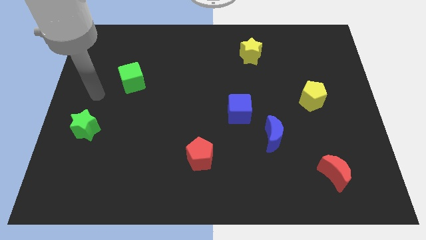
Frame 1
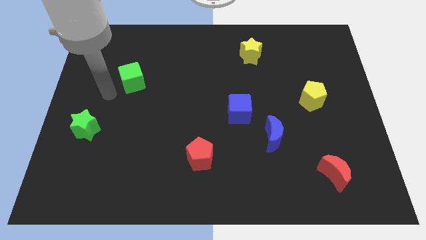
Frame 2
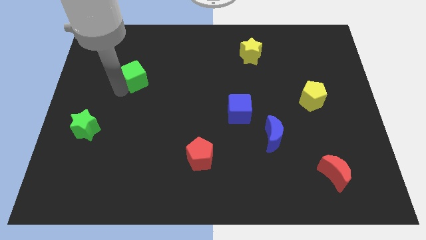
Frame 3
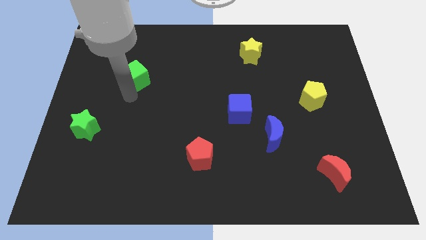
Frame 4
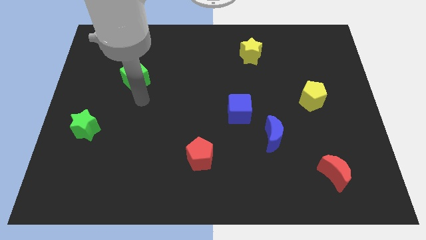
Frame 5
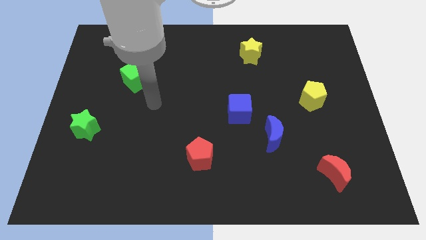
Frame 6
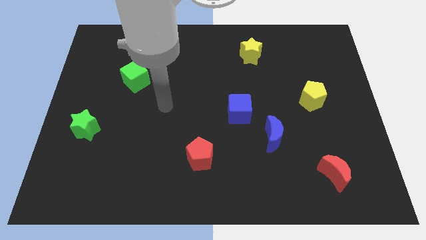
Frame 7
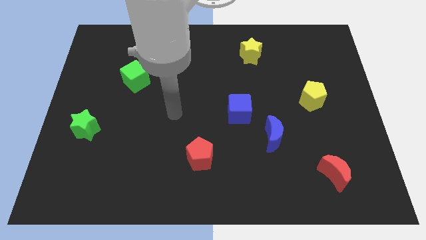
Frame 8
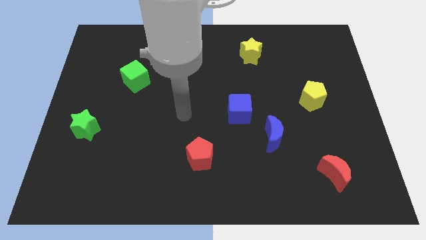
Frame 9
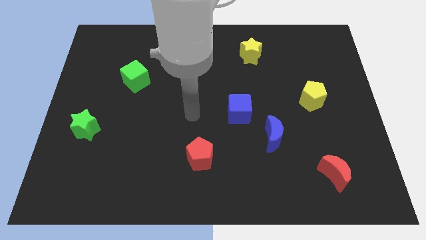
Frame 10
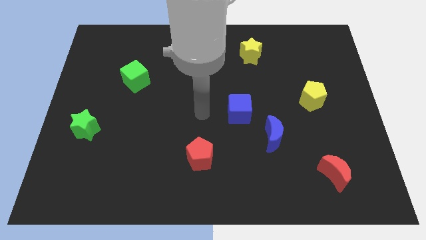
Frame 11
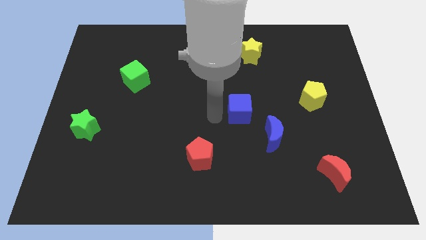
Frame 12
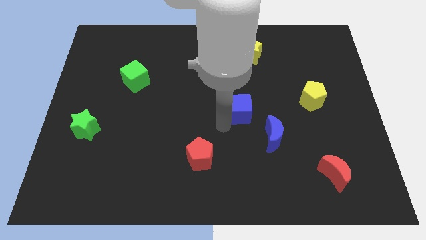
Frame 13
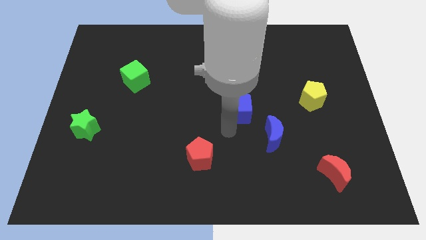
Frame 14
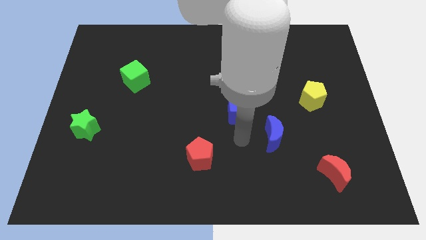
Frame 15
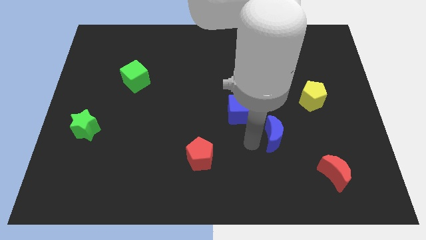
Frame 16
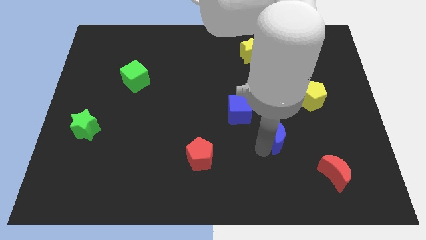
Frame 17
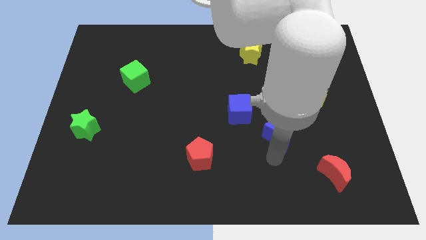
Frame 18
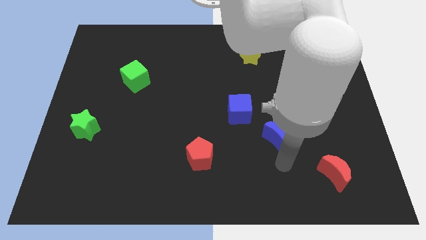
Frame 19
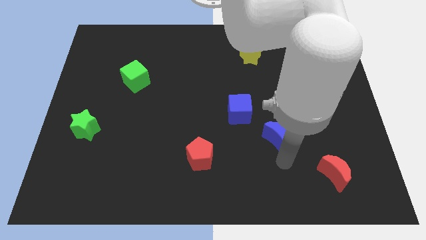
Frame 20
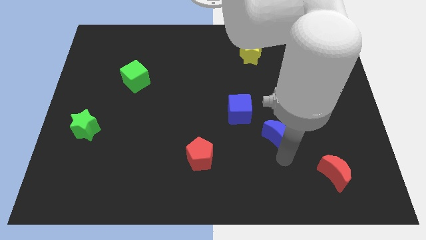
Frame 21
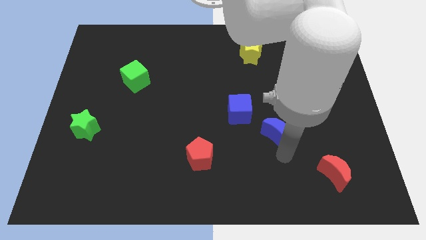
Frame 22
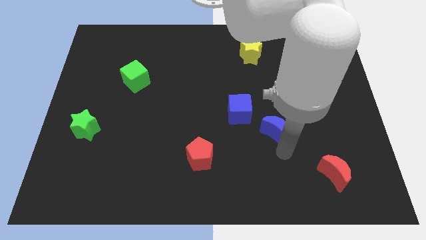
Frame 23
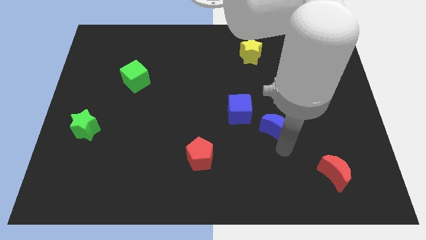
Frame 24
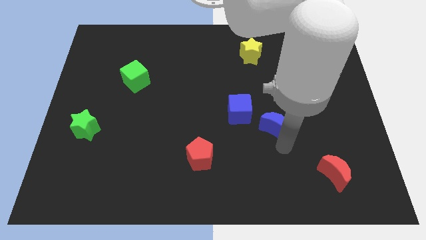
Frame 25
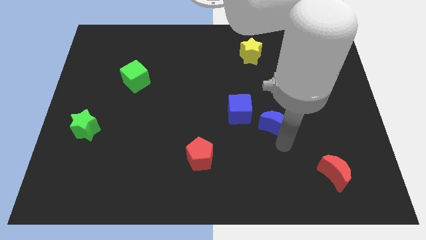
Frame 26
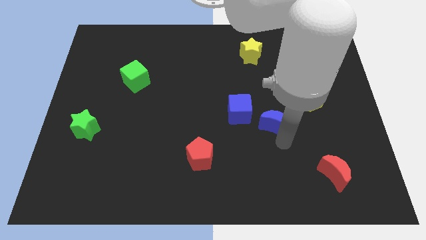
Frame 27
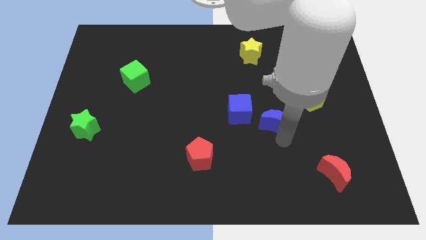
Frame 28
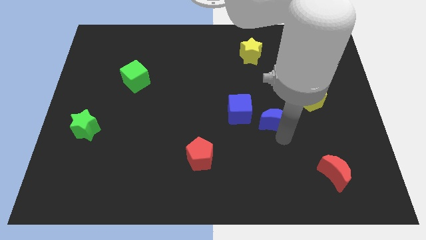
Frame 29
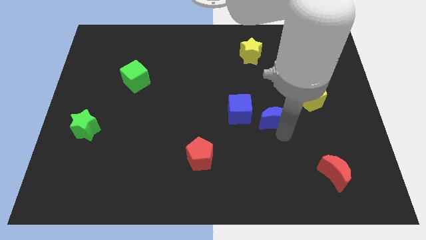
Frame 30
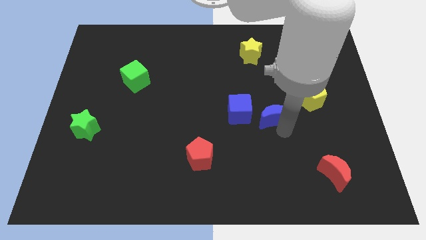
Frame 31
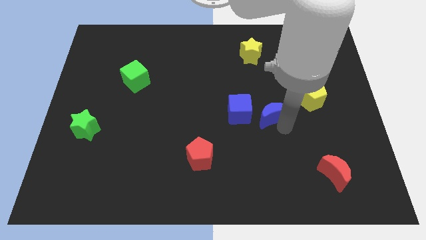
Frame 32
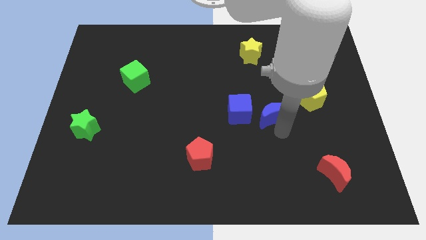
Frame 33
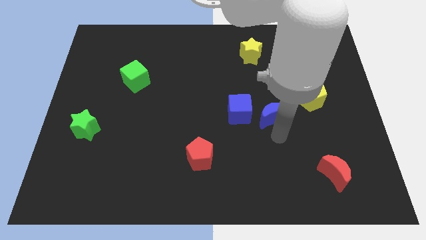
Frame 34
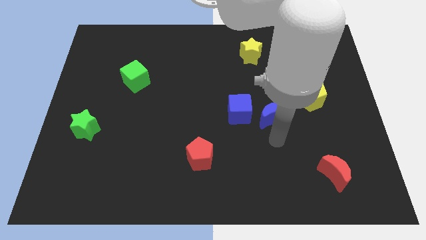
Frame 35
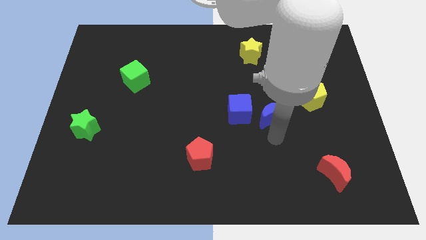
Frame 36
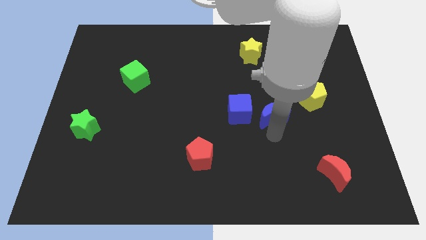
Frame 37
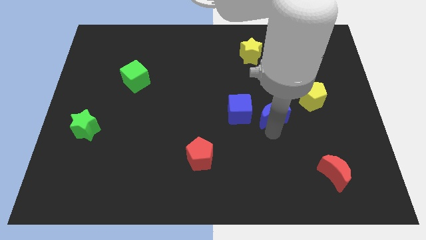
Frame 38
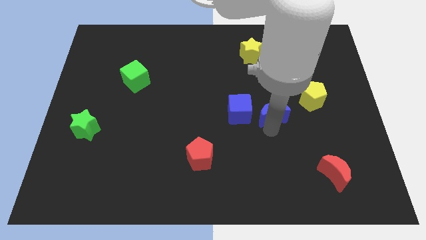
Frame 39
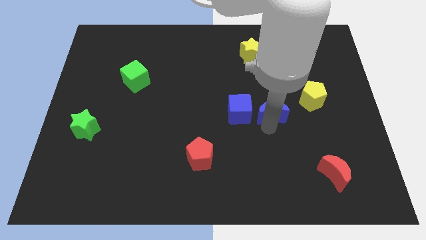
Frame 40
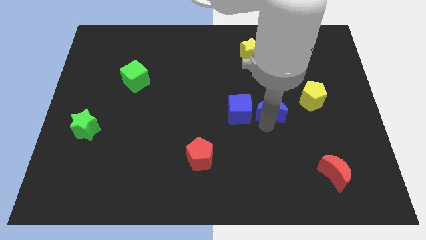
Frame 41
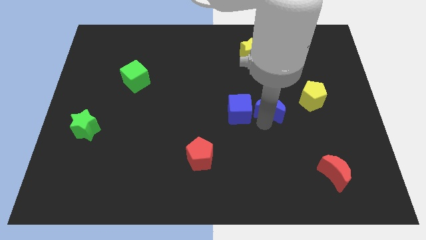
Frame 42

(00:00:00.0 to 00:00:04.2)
slightly push the blue moon up

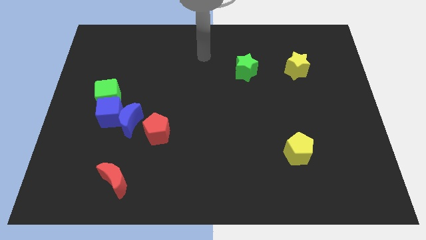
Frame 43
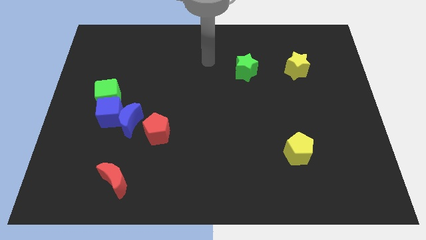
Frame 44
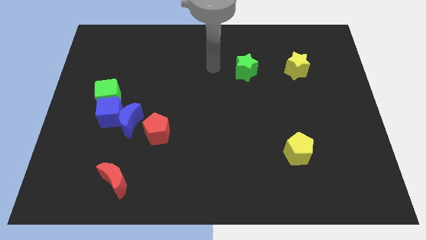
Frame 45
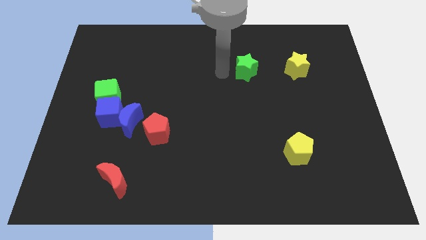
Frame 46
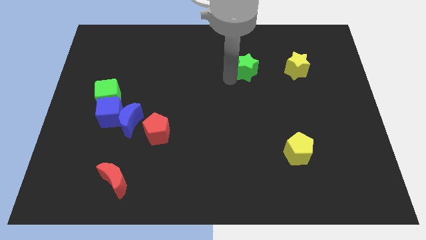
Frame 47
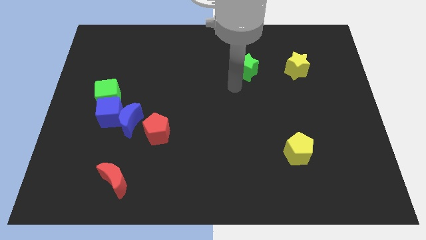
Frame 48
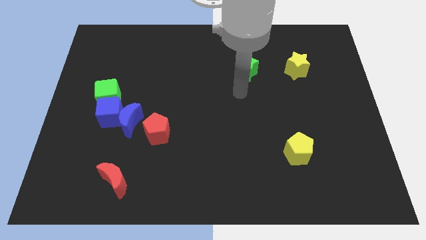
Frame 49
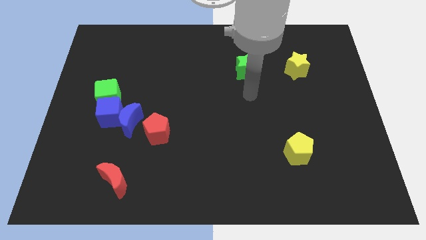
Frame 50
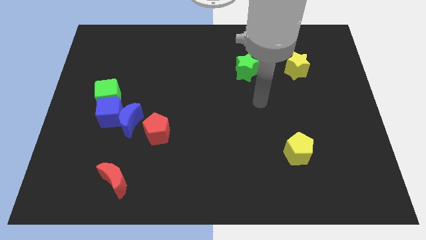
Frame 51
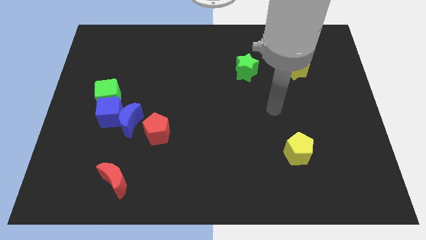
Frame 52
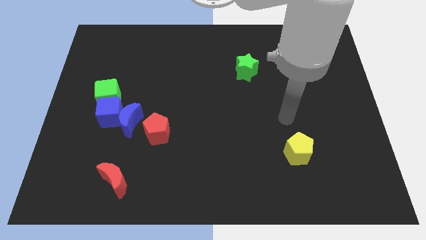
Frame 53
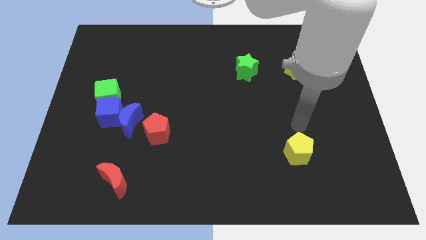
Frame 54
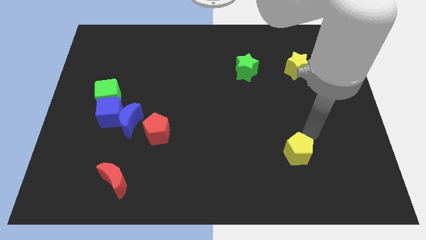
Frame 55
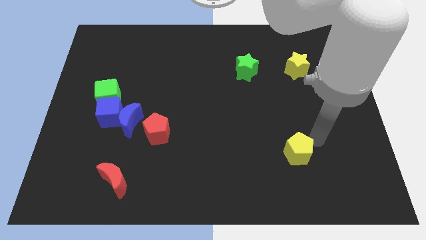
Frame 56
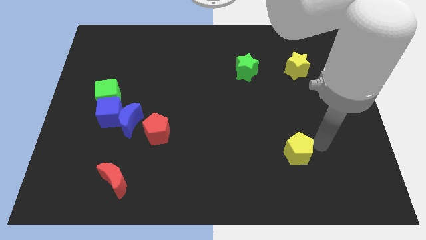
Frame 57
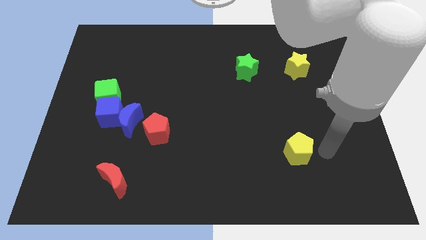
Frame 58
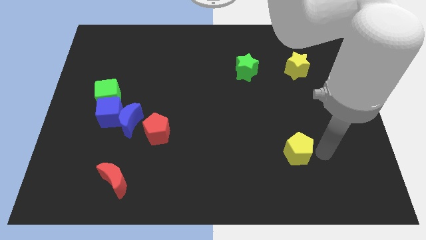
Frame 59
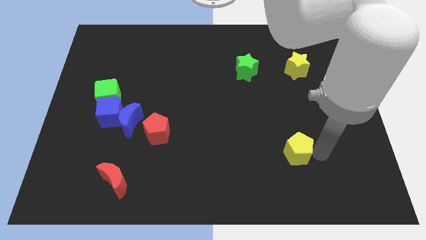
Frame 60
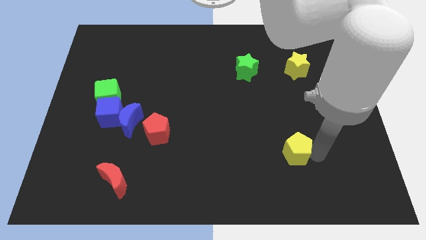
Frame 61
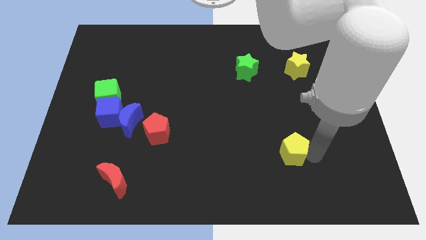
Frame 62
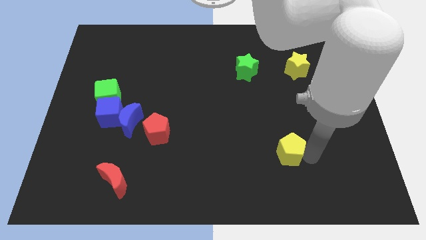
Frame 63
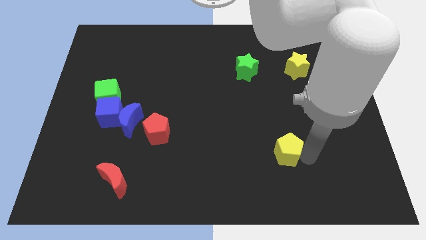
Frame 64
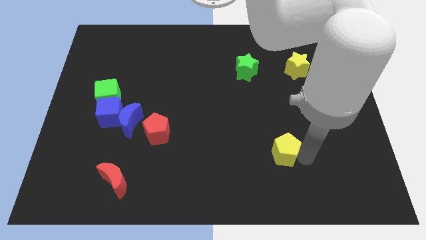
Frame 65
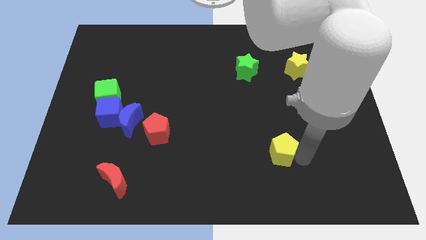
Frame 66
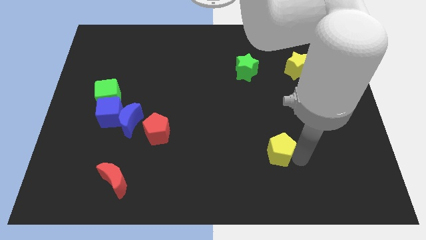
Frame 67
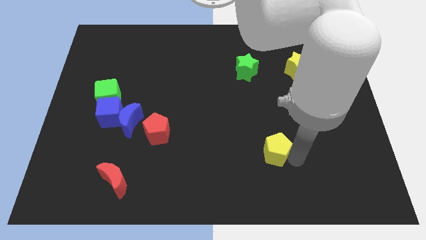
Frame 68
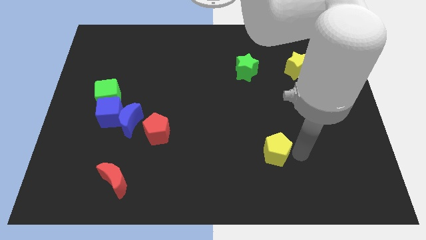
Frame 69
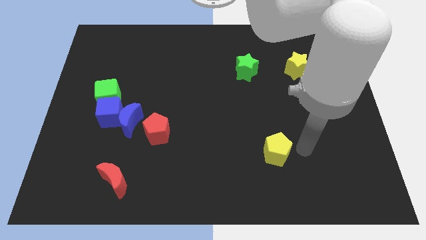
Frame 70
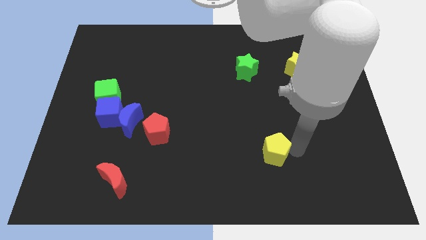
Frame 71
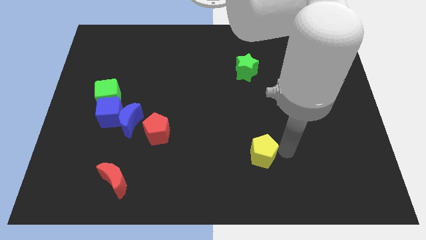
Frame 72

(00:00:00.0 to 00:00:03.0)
move the yellow pentagon left somewhat

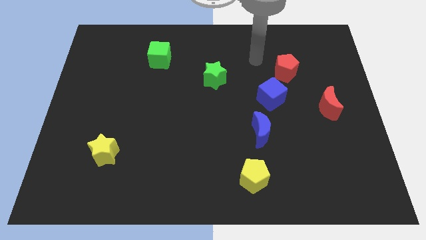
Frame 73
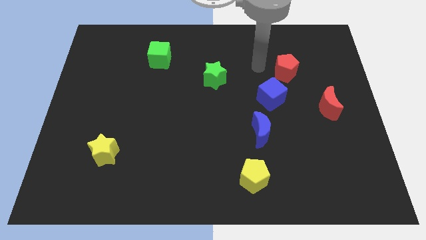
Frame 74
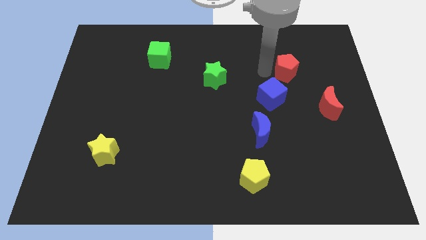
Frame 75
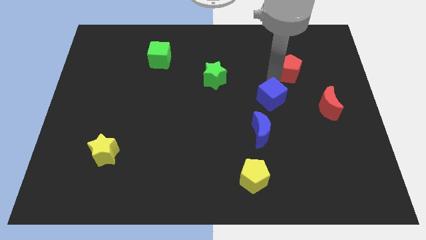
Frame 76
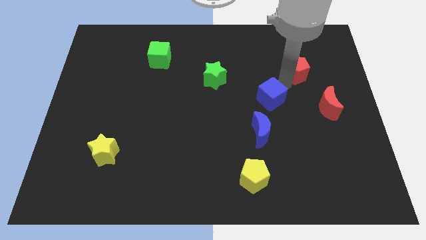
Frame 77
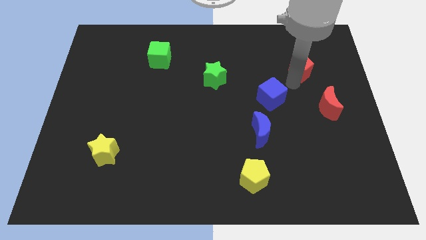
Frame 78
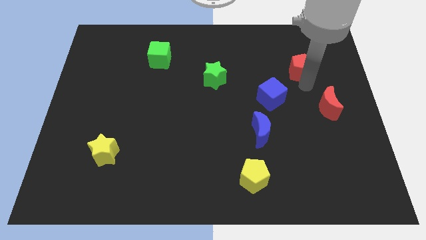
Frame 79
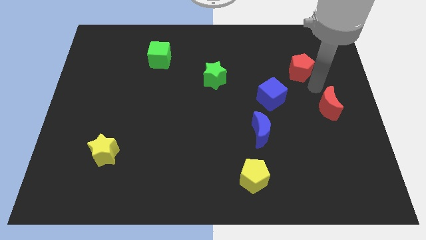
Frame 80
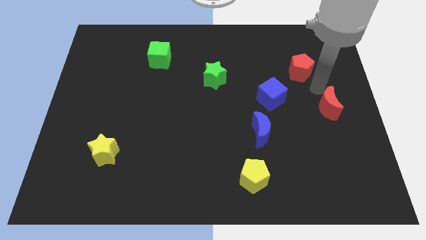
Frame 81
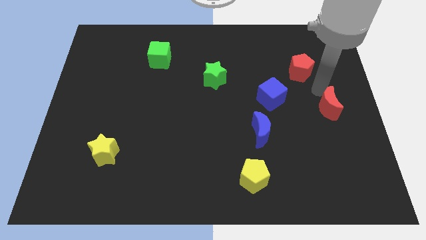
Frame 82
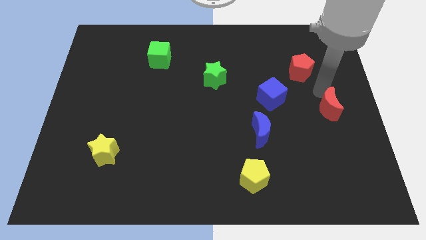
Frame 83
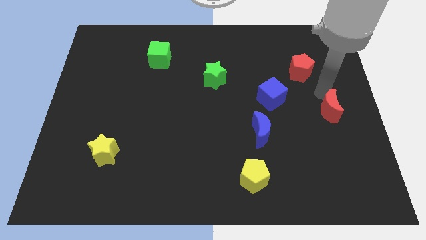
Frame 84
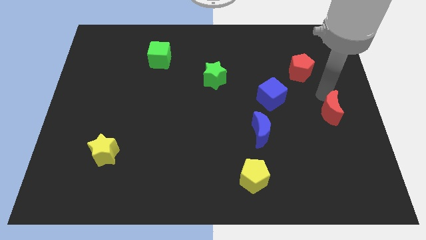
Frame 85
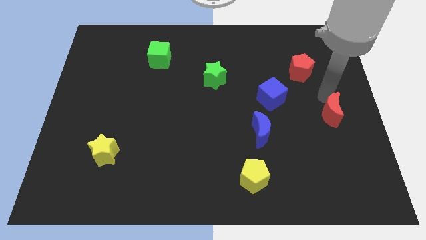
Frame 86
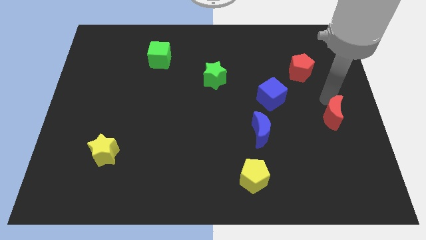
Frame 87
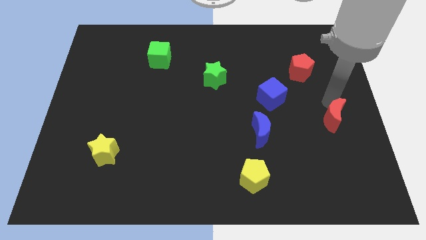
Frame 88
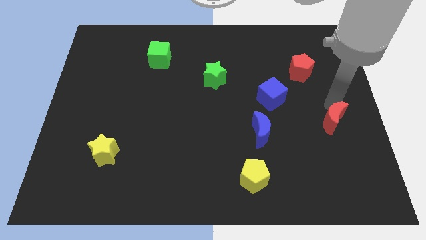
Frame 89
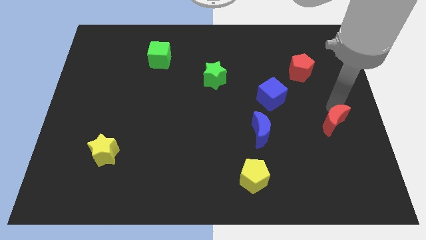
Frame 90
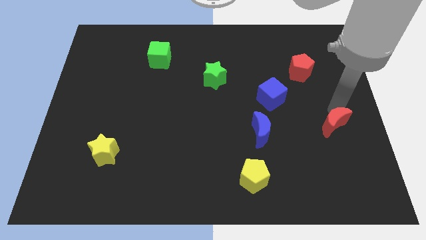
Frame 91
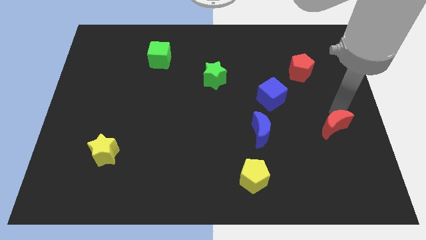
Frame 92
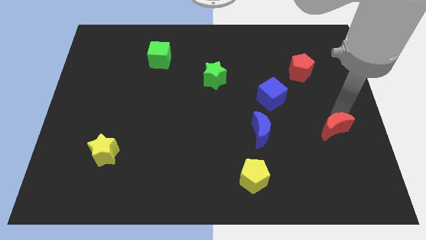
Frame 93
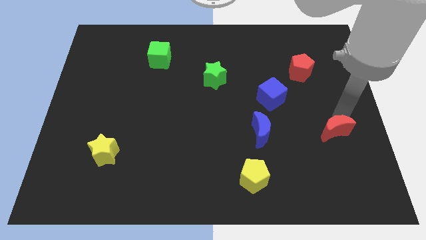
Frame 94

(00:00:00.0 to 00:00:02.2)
move the red moon downwards somewhat
